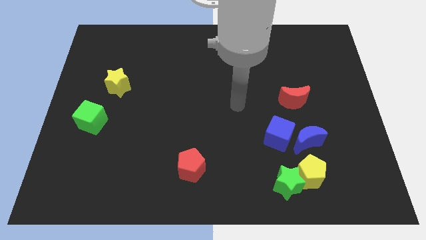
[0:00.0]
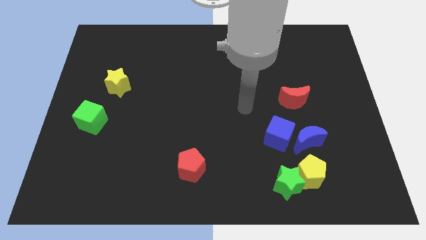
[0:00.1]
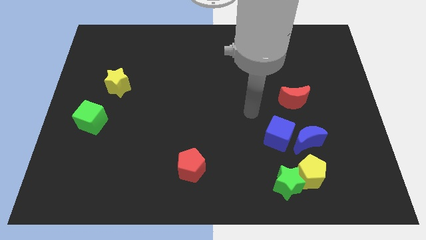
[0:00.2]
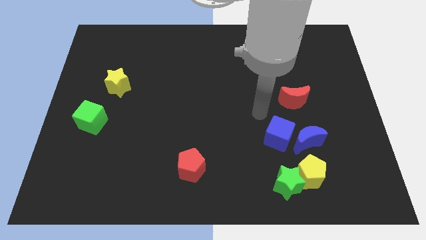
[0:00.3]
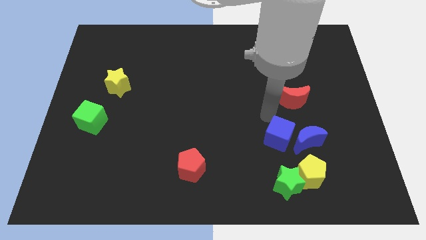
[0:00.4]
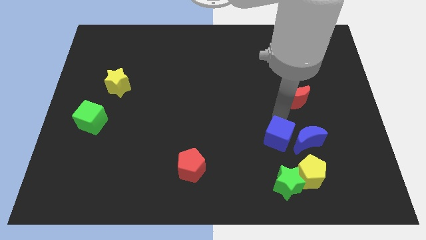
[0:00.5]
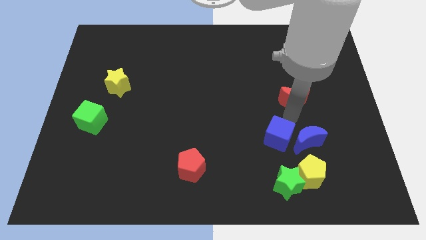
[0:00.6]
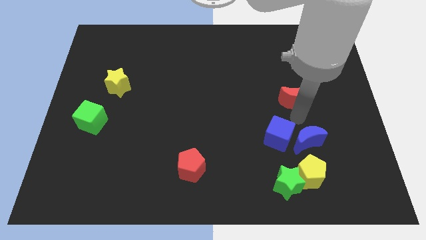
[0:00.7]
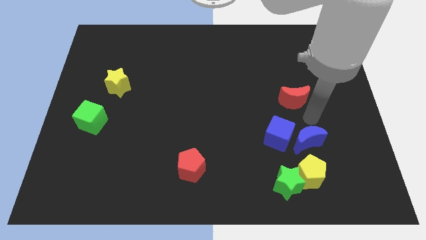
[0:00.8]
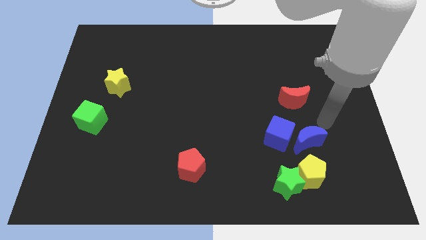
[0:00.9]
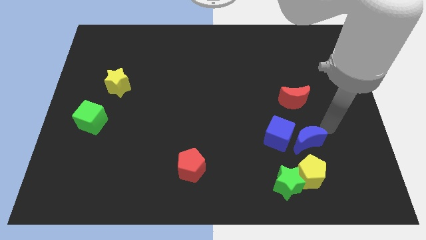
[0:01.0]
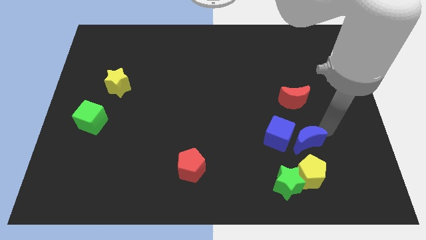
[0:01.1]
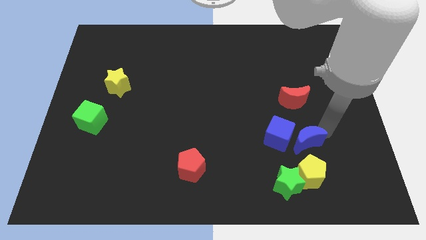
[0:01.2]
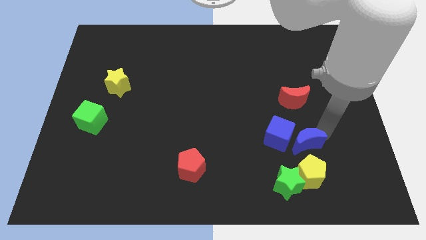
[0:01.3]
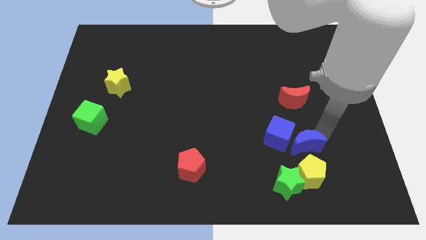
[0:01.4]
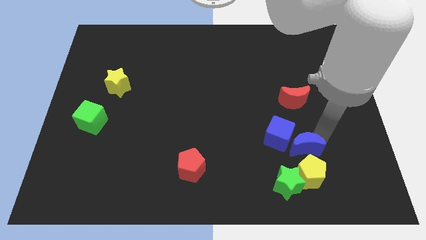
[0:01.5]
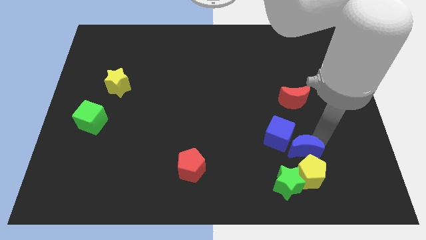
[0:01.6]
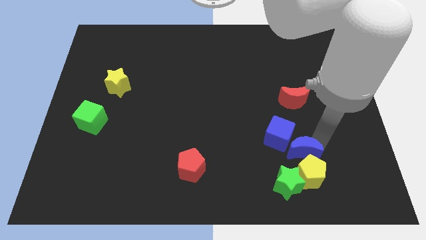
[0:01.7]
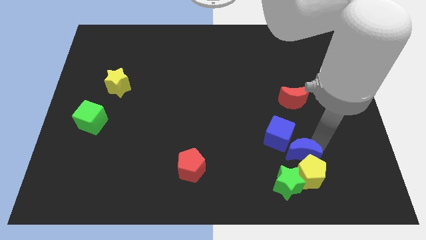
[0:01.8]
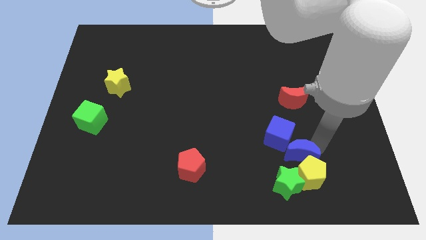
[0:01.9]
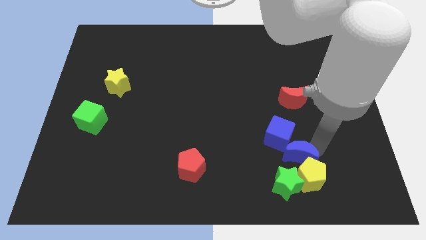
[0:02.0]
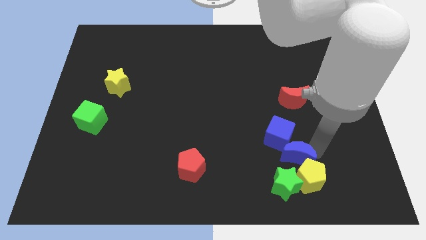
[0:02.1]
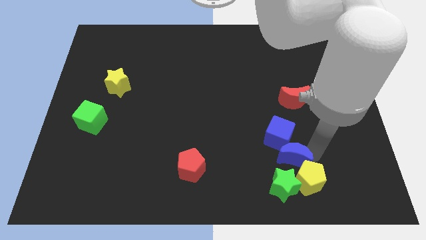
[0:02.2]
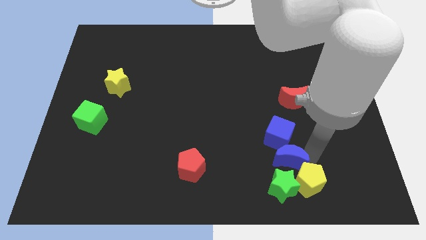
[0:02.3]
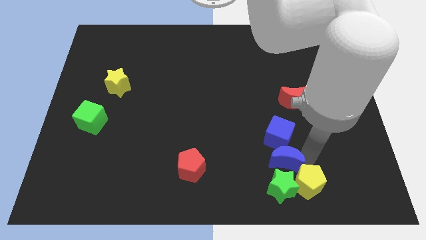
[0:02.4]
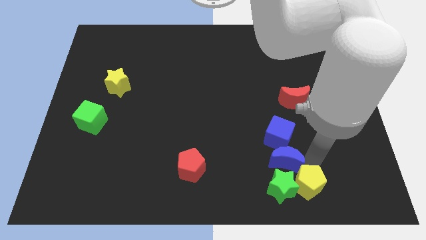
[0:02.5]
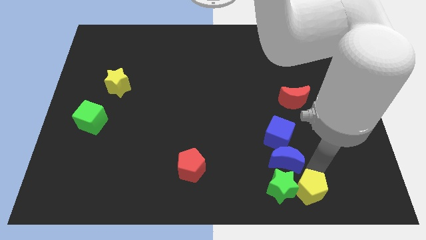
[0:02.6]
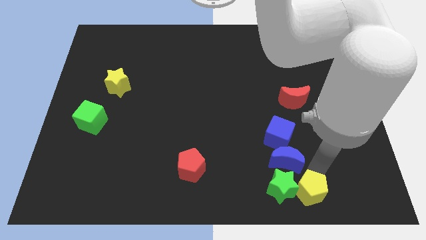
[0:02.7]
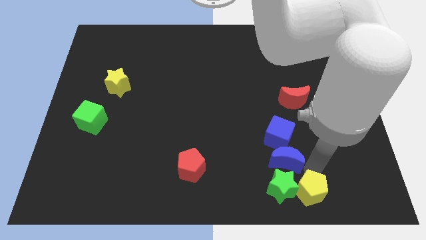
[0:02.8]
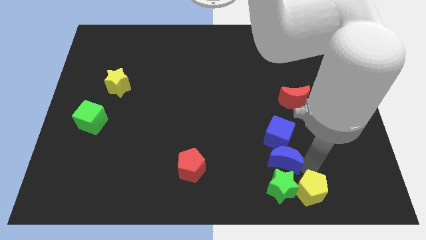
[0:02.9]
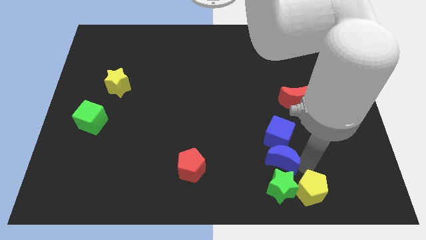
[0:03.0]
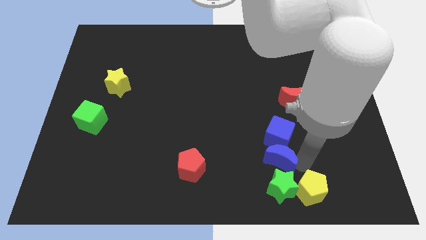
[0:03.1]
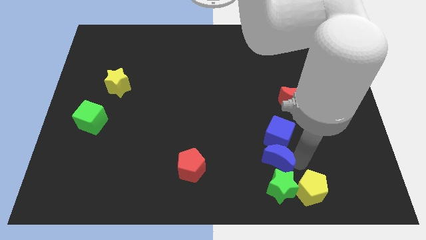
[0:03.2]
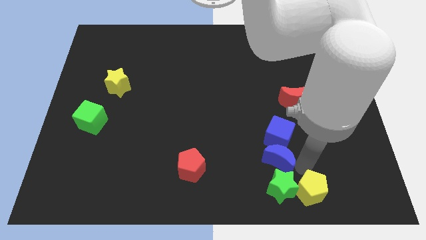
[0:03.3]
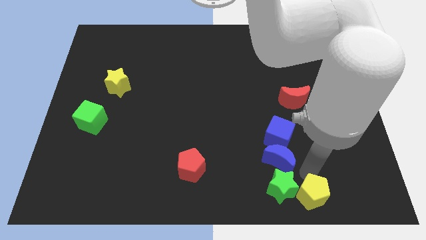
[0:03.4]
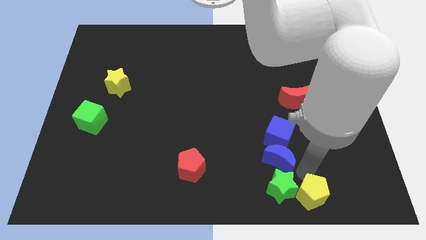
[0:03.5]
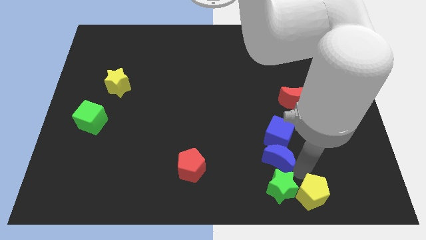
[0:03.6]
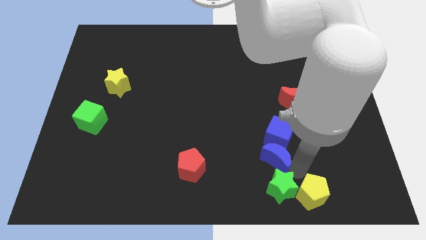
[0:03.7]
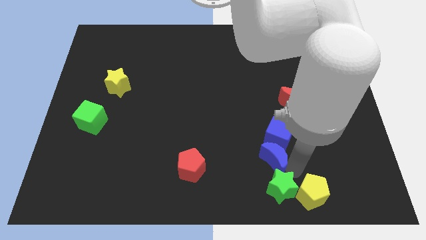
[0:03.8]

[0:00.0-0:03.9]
move the blue moon to the left somewhat

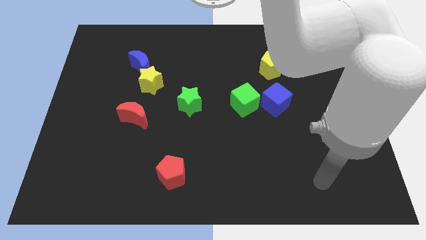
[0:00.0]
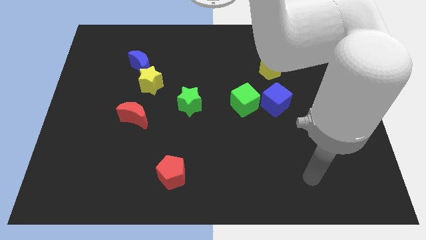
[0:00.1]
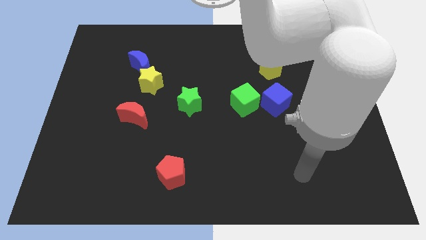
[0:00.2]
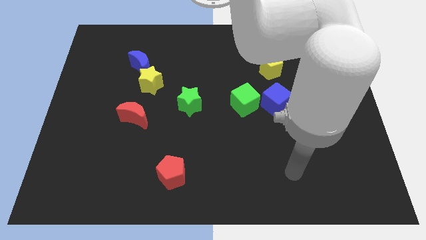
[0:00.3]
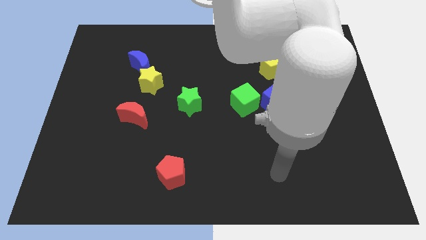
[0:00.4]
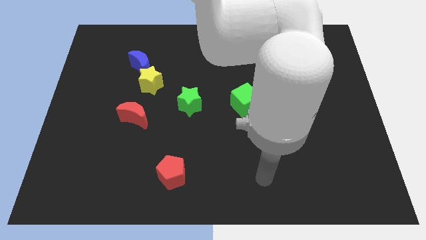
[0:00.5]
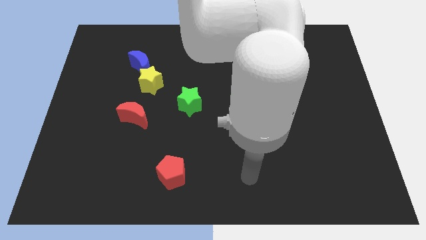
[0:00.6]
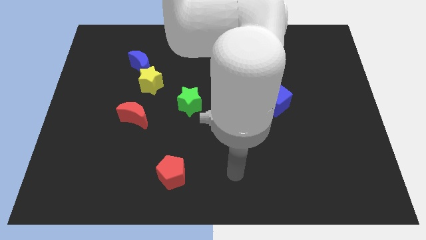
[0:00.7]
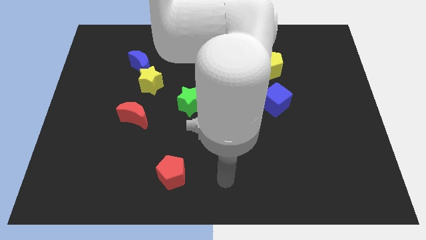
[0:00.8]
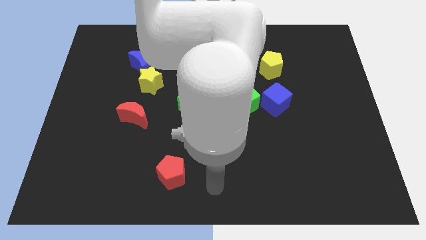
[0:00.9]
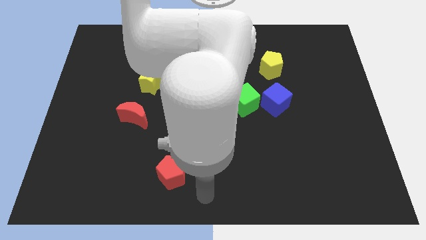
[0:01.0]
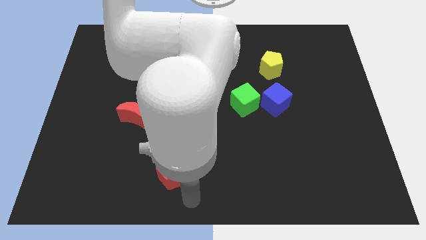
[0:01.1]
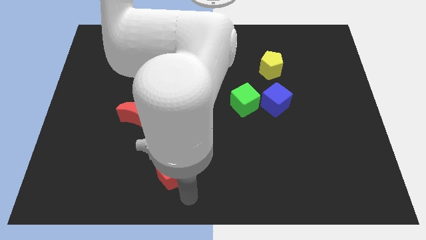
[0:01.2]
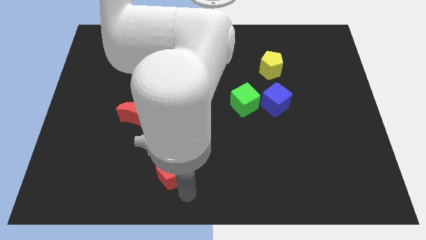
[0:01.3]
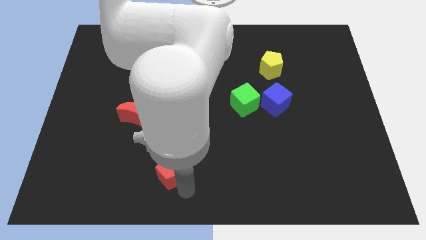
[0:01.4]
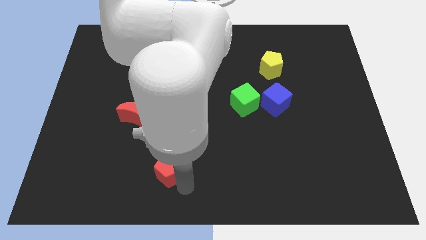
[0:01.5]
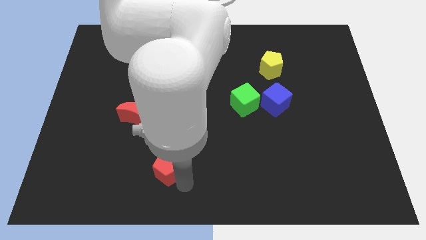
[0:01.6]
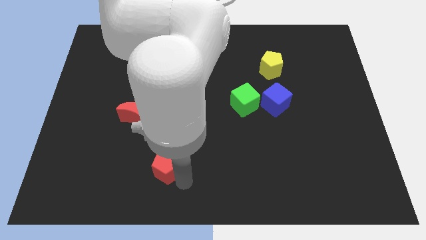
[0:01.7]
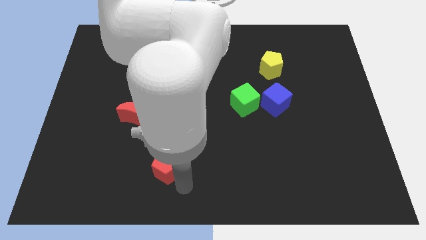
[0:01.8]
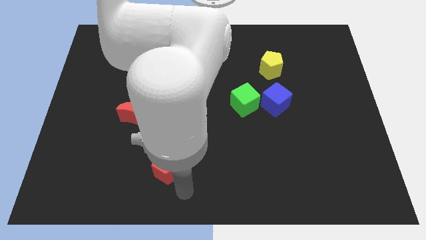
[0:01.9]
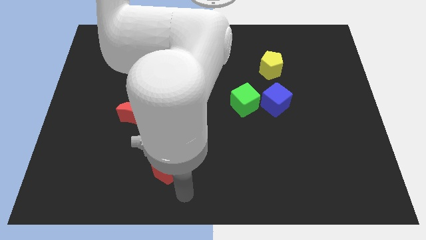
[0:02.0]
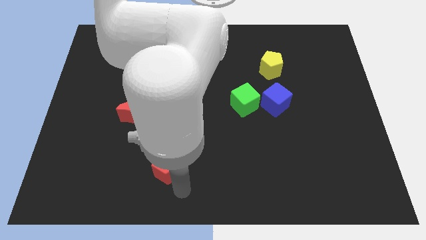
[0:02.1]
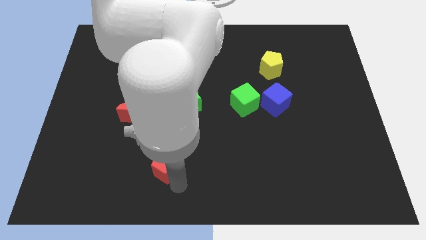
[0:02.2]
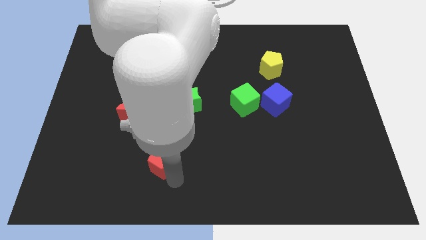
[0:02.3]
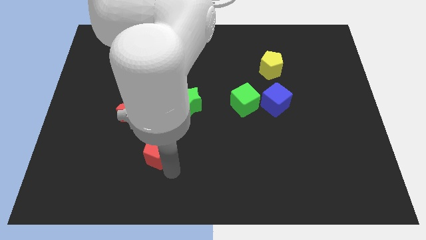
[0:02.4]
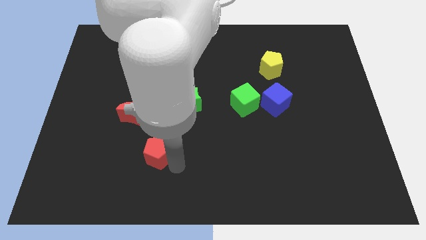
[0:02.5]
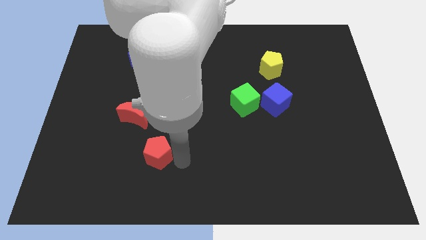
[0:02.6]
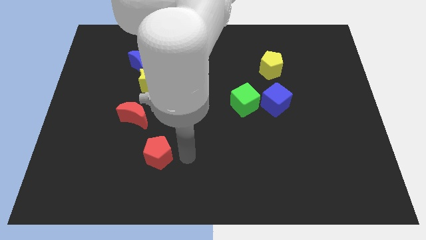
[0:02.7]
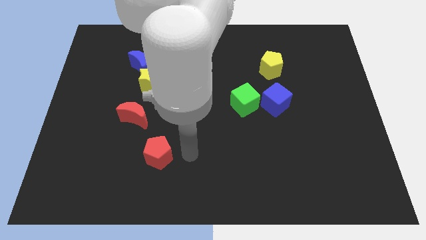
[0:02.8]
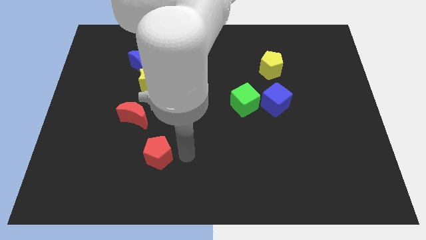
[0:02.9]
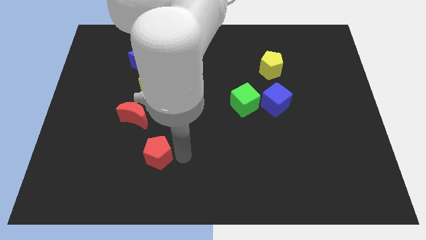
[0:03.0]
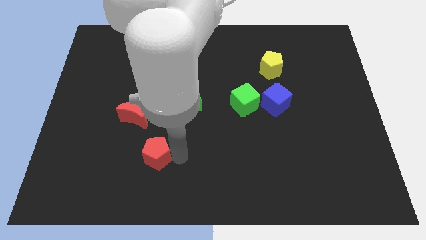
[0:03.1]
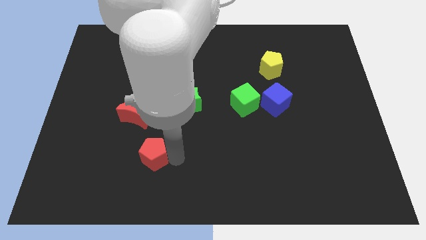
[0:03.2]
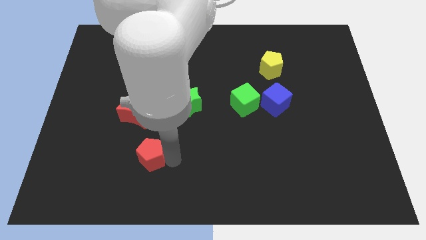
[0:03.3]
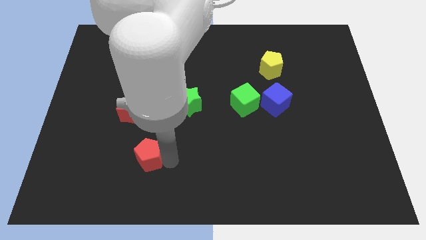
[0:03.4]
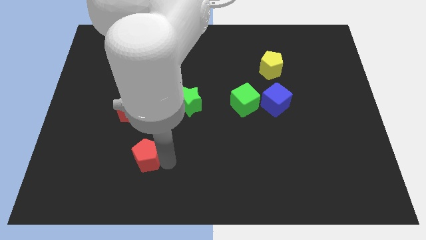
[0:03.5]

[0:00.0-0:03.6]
move the red pentagon up and left somewhat

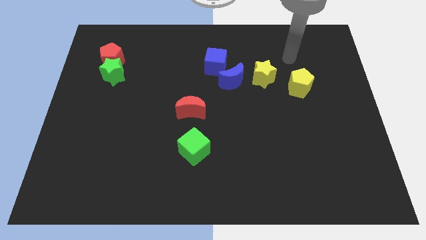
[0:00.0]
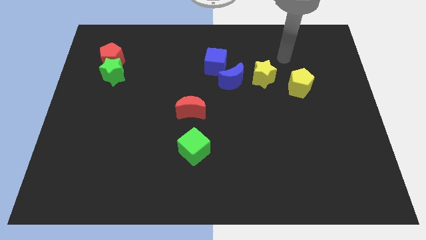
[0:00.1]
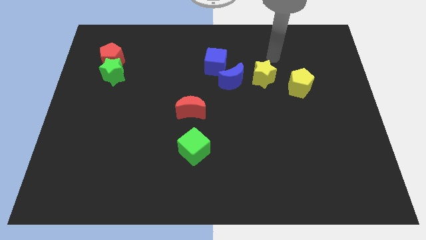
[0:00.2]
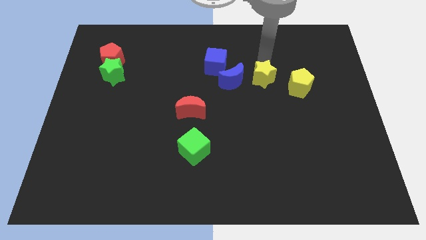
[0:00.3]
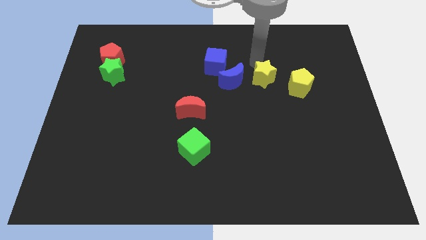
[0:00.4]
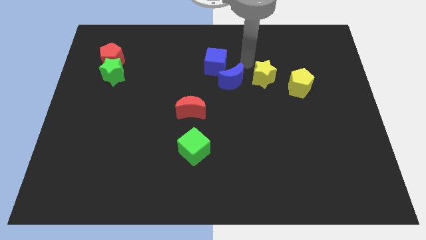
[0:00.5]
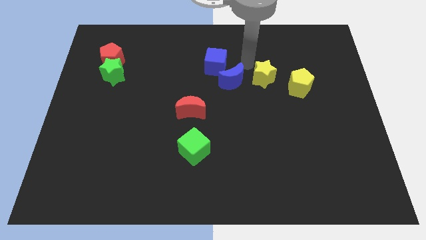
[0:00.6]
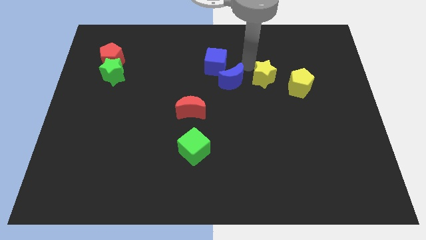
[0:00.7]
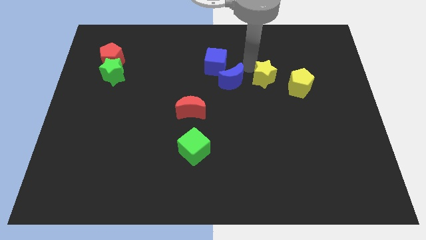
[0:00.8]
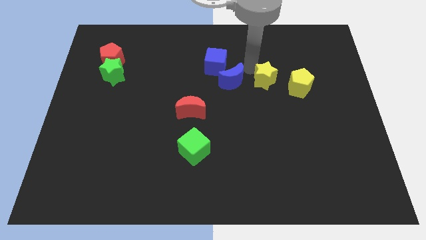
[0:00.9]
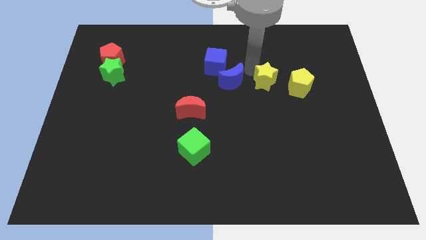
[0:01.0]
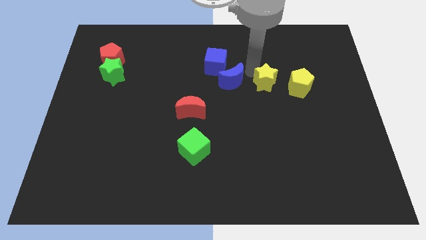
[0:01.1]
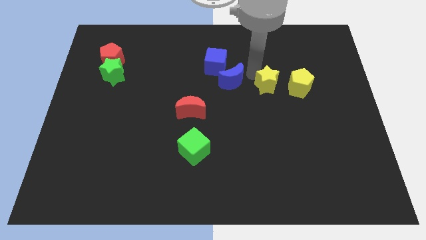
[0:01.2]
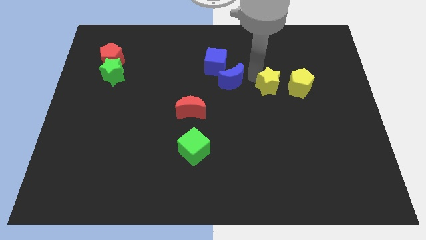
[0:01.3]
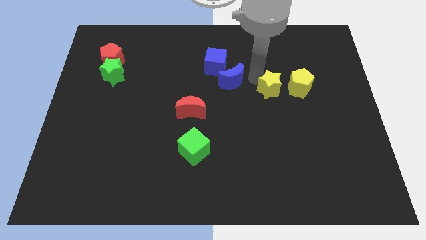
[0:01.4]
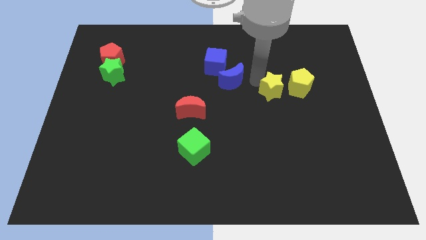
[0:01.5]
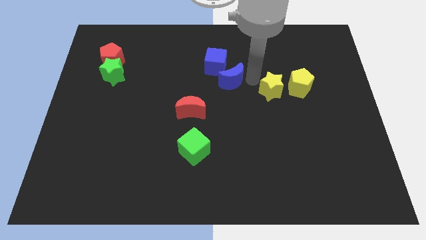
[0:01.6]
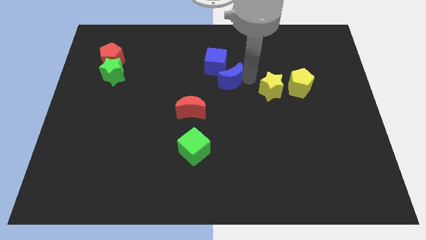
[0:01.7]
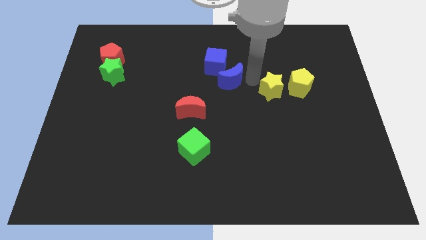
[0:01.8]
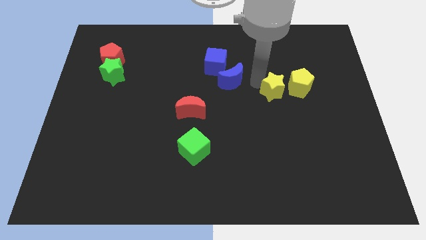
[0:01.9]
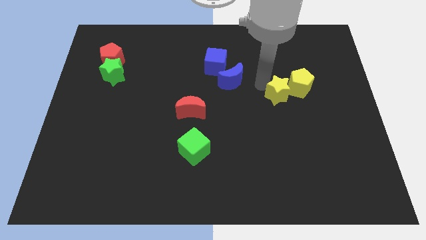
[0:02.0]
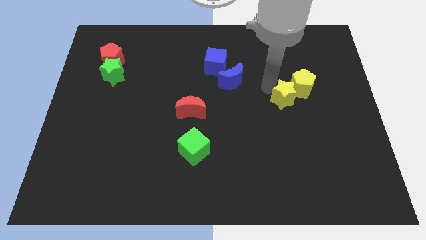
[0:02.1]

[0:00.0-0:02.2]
slide the yellow star somewhat diagonally downwards and right
